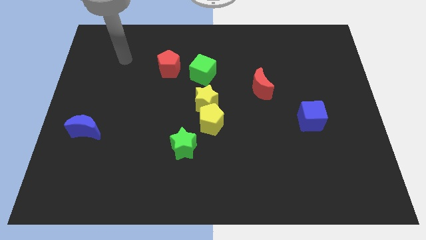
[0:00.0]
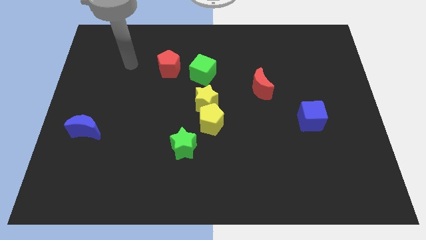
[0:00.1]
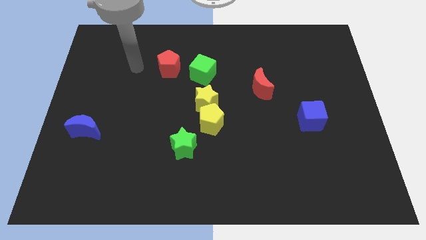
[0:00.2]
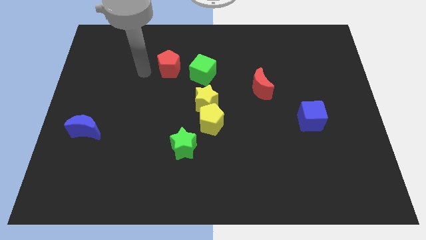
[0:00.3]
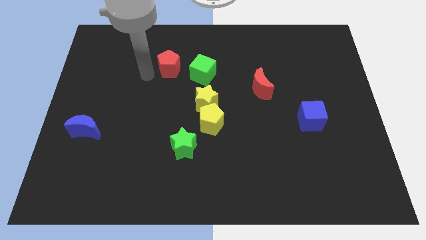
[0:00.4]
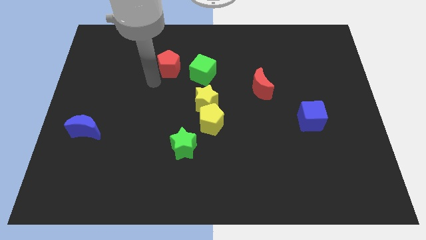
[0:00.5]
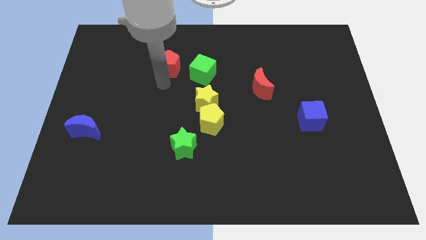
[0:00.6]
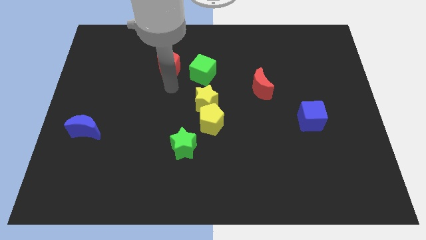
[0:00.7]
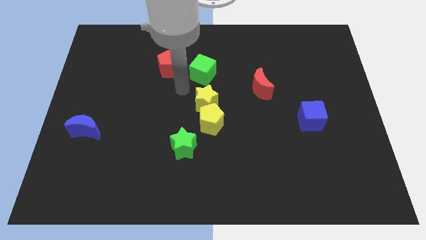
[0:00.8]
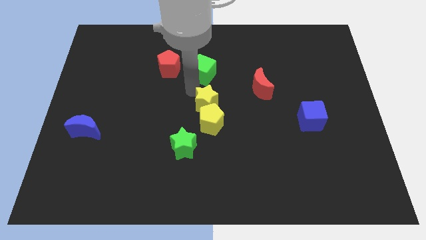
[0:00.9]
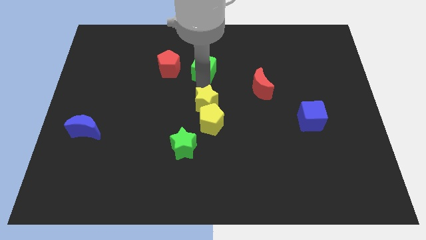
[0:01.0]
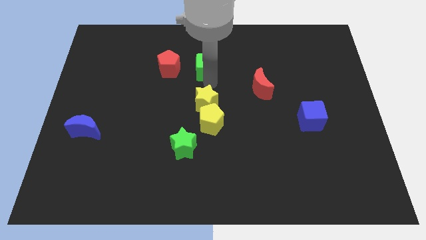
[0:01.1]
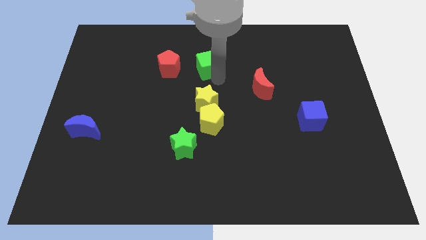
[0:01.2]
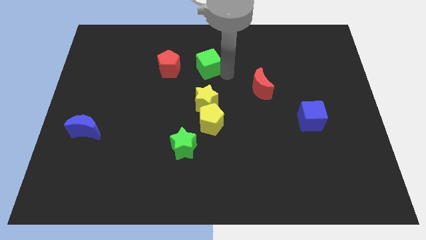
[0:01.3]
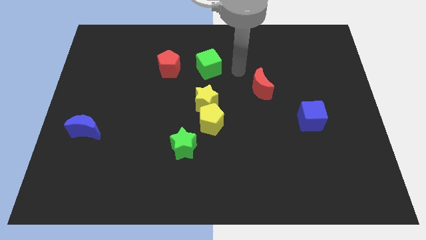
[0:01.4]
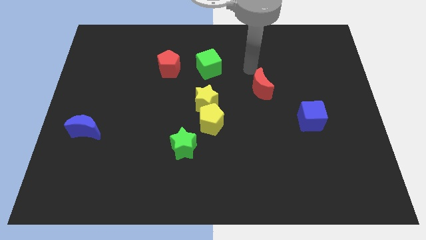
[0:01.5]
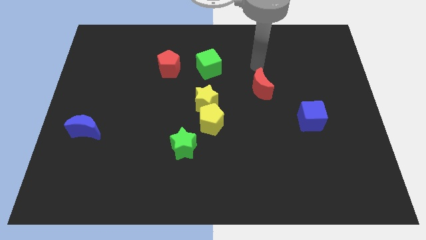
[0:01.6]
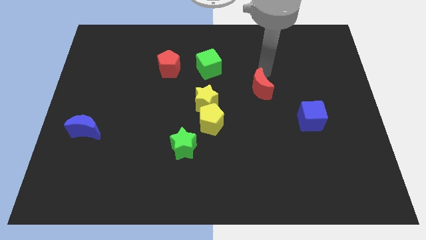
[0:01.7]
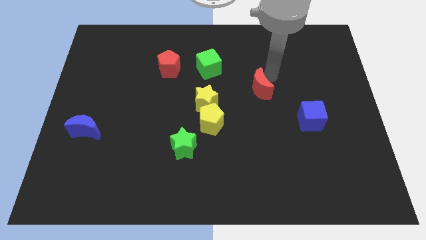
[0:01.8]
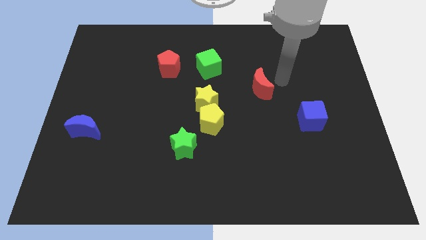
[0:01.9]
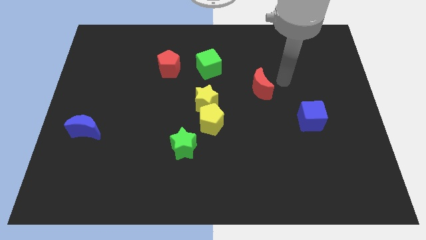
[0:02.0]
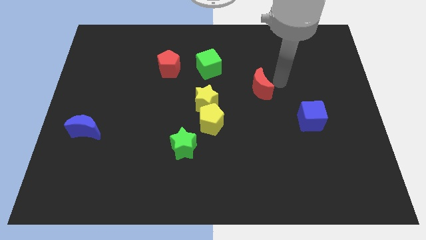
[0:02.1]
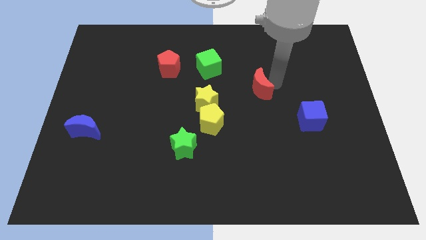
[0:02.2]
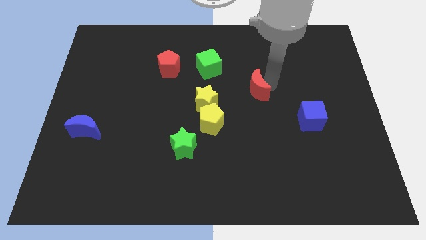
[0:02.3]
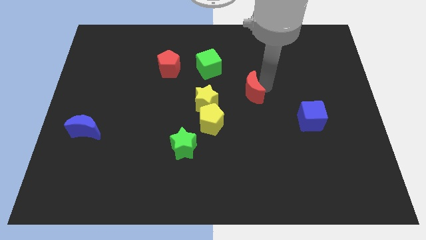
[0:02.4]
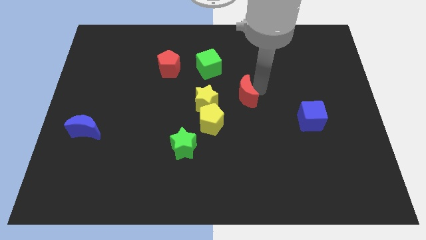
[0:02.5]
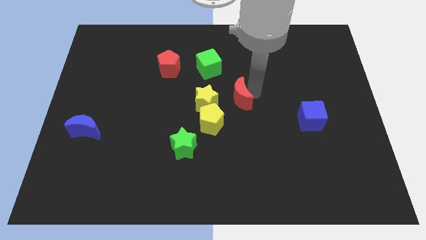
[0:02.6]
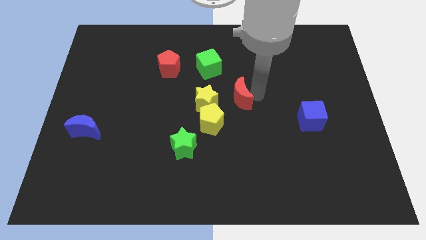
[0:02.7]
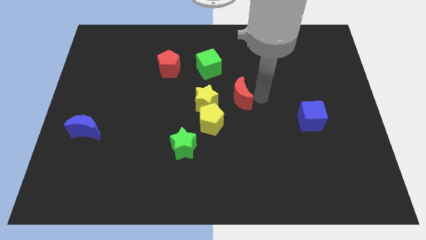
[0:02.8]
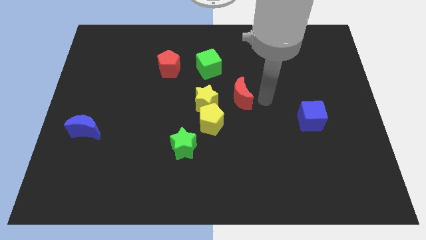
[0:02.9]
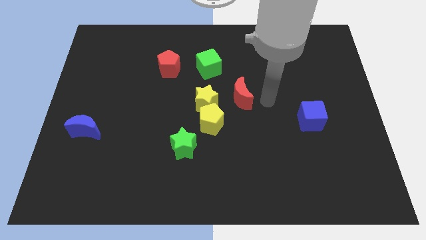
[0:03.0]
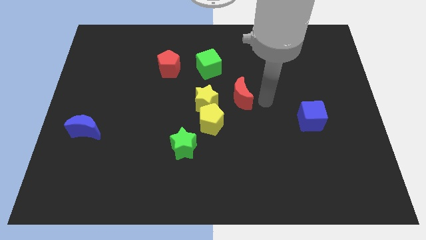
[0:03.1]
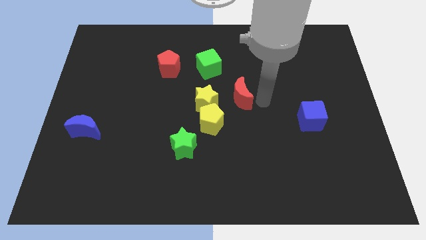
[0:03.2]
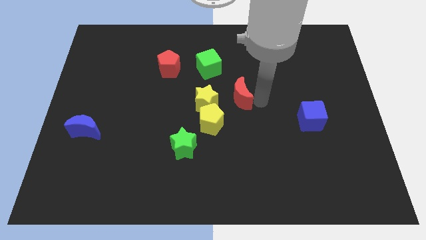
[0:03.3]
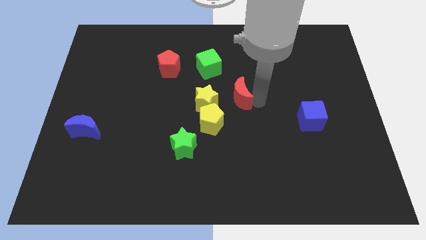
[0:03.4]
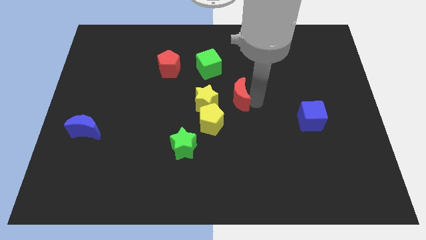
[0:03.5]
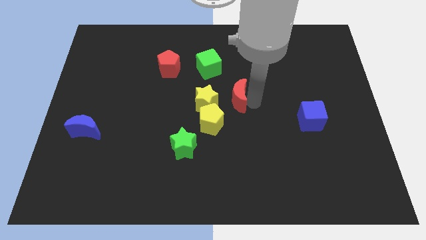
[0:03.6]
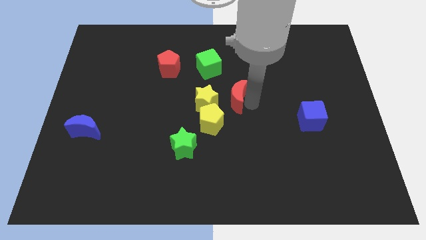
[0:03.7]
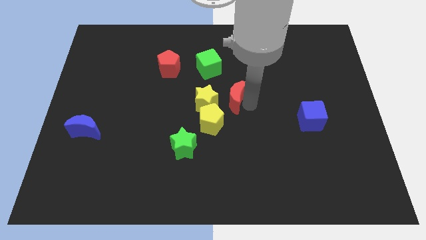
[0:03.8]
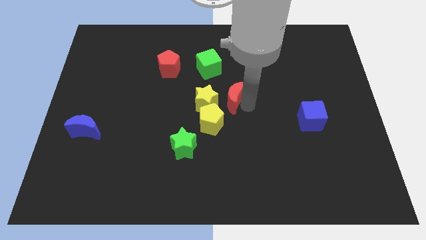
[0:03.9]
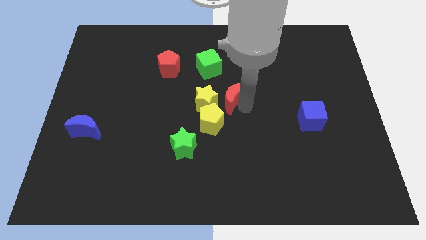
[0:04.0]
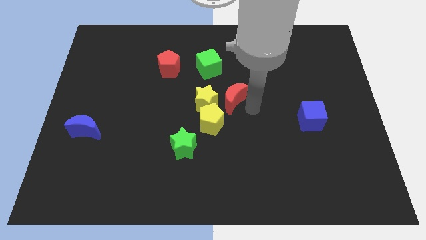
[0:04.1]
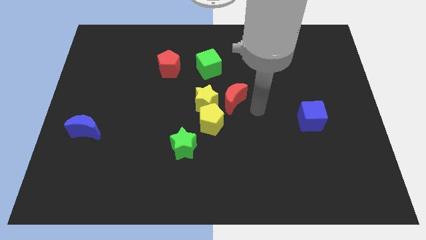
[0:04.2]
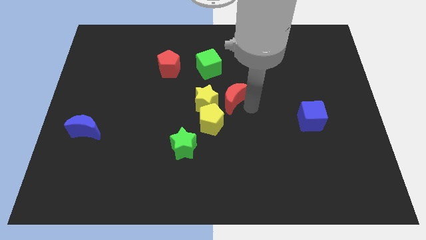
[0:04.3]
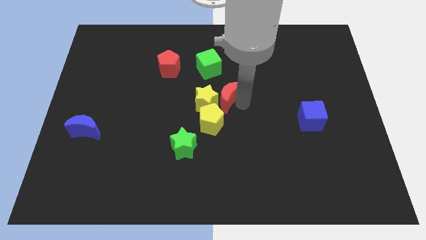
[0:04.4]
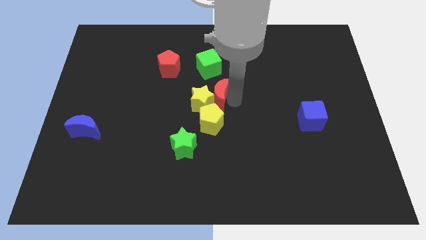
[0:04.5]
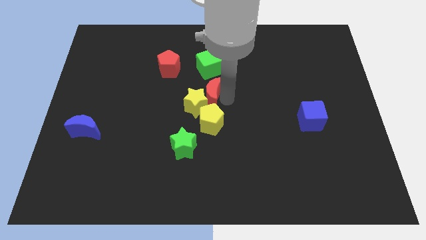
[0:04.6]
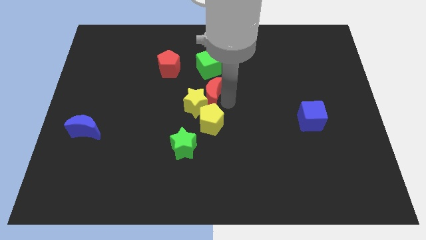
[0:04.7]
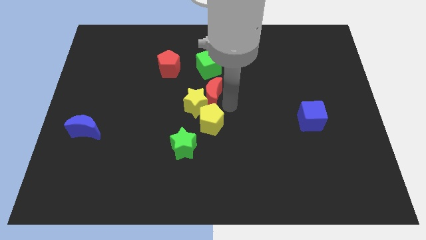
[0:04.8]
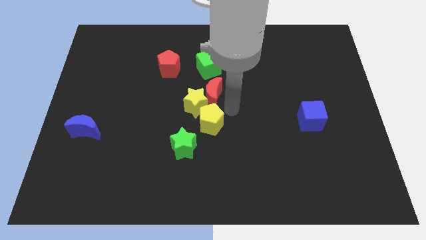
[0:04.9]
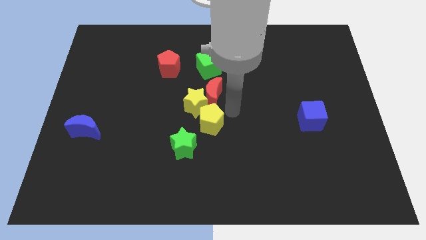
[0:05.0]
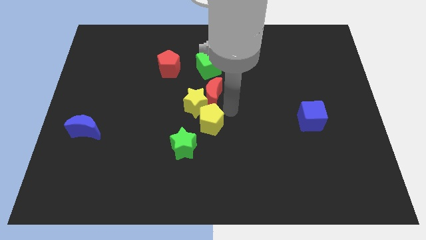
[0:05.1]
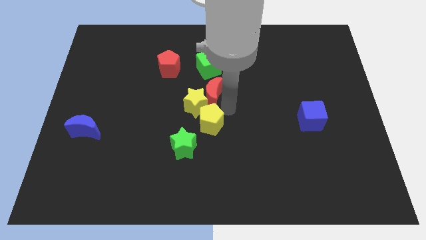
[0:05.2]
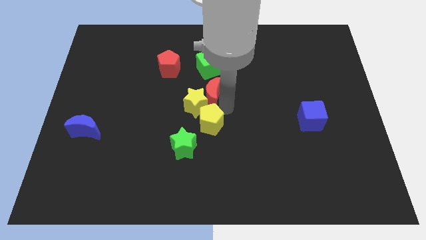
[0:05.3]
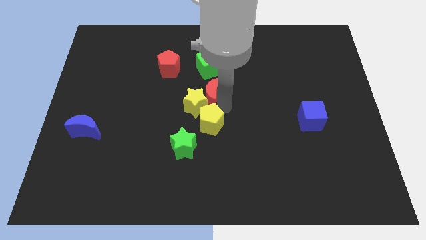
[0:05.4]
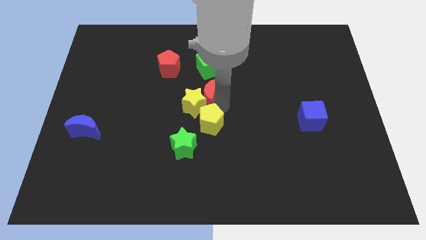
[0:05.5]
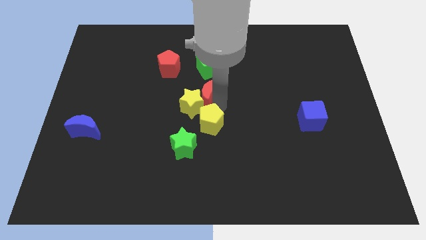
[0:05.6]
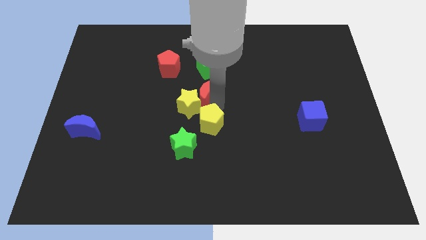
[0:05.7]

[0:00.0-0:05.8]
move the red moon to the top left side of the yellow pentagon

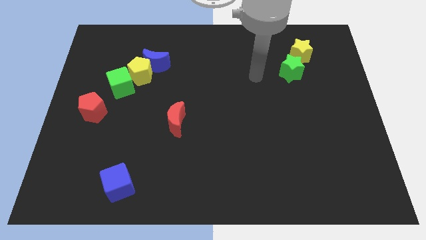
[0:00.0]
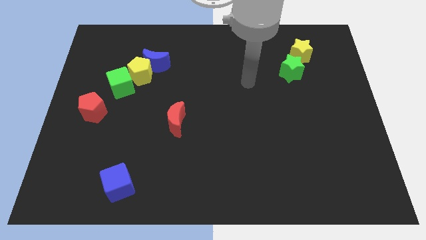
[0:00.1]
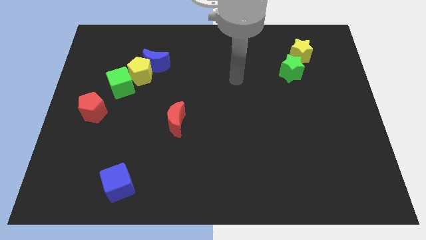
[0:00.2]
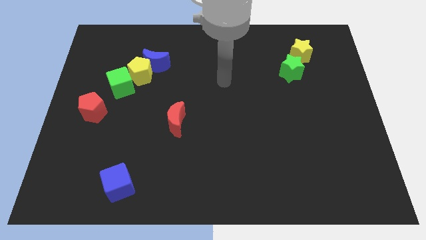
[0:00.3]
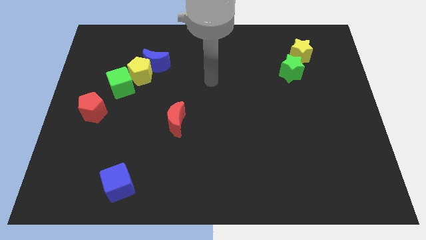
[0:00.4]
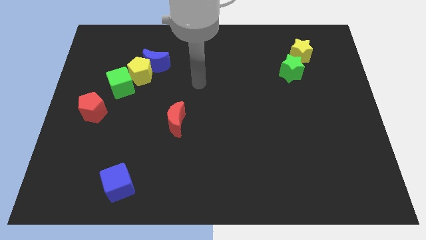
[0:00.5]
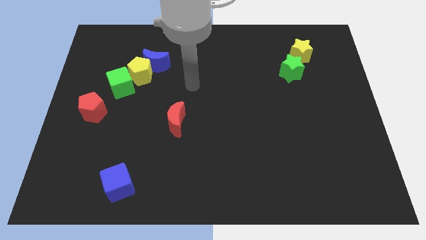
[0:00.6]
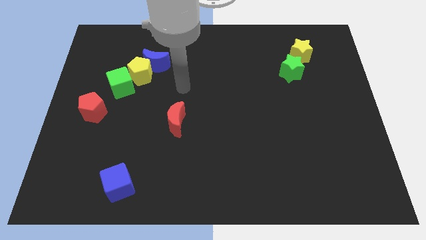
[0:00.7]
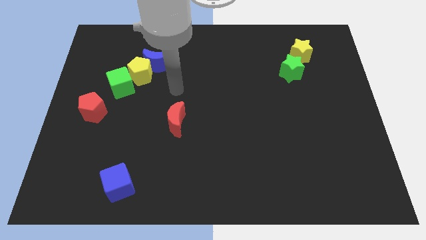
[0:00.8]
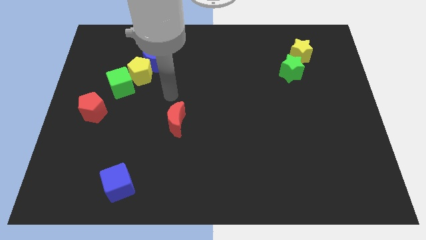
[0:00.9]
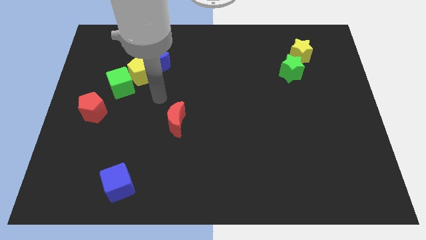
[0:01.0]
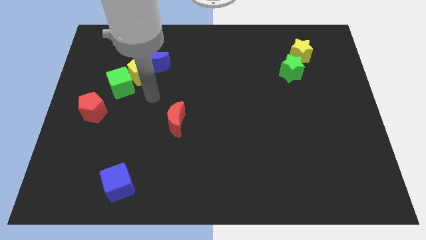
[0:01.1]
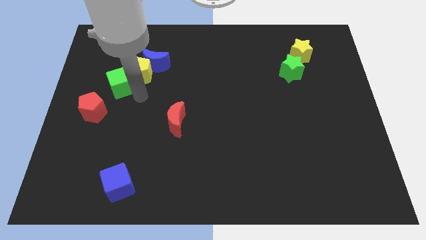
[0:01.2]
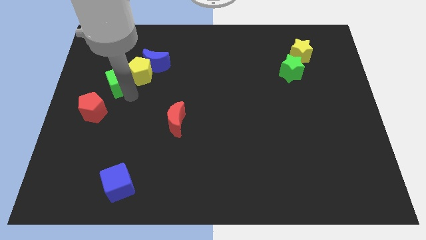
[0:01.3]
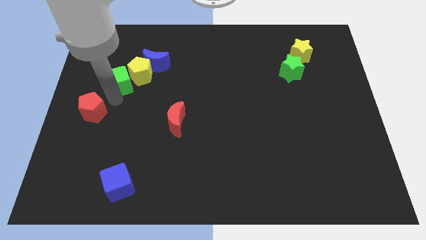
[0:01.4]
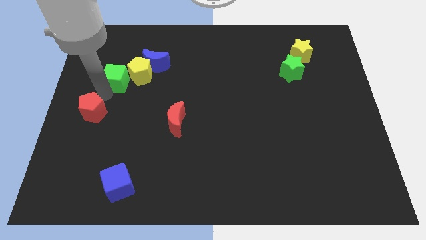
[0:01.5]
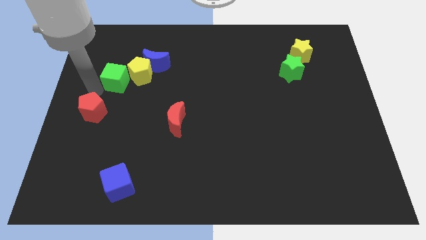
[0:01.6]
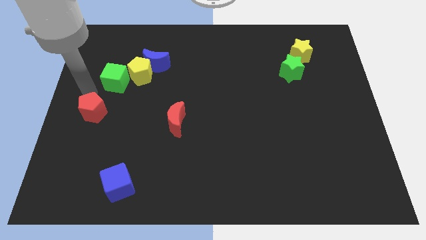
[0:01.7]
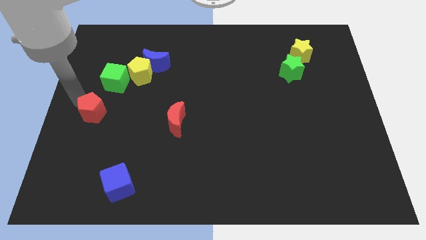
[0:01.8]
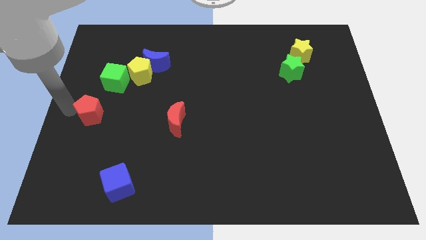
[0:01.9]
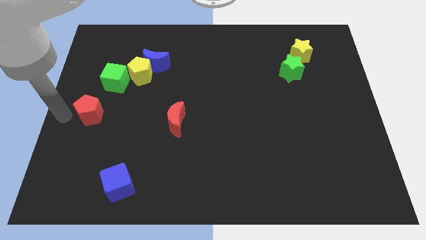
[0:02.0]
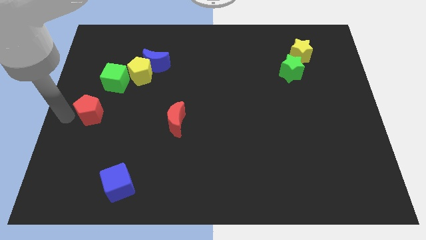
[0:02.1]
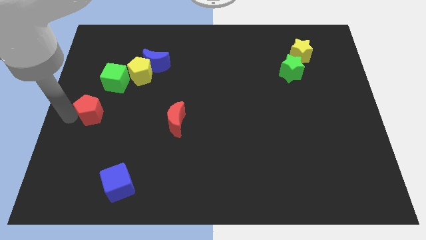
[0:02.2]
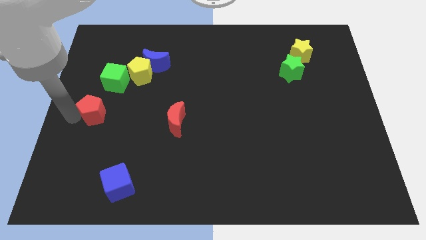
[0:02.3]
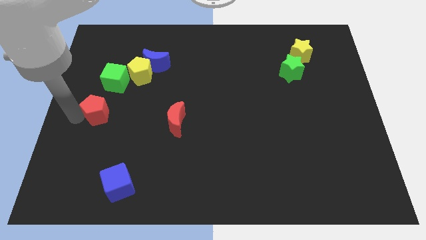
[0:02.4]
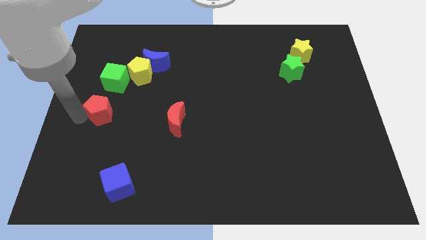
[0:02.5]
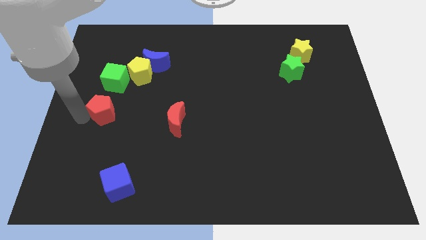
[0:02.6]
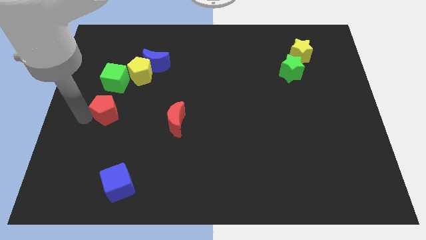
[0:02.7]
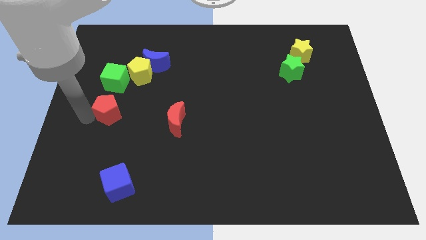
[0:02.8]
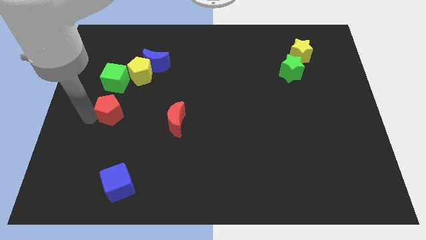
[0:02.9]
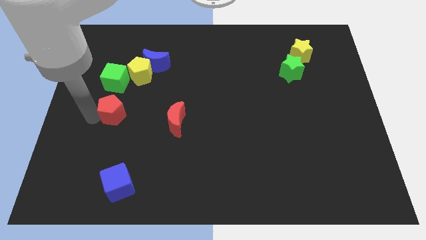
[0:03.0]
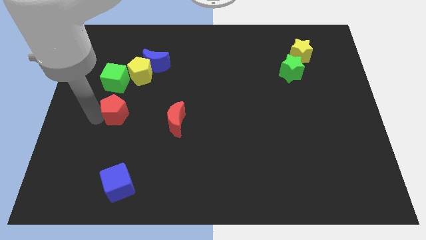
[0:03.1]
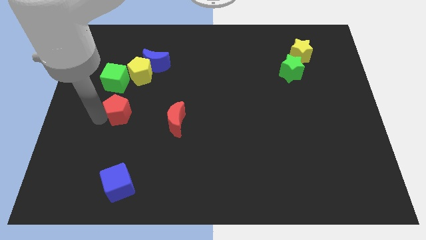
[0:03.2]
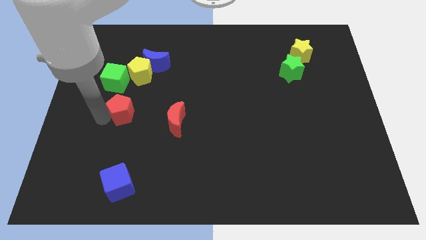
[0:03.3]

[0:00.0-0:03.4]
push the red pentagon to the bottom right side of the green cube
